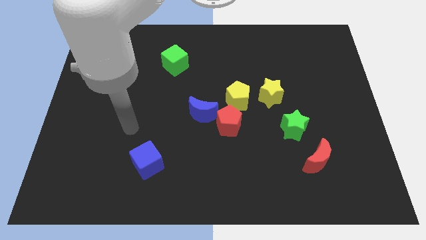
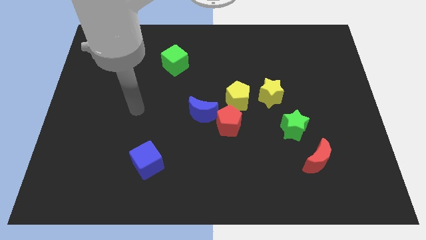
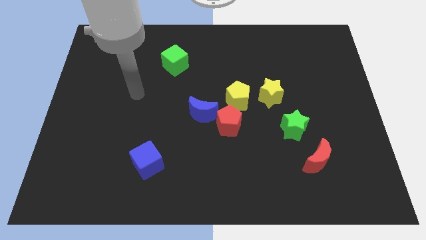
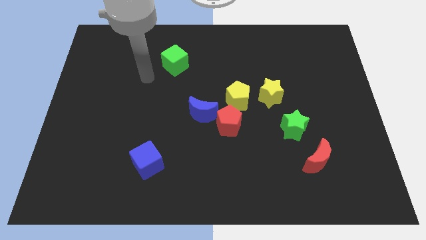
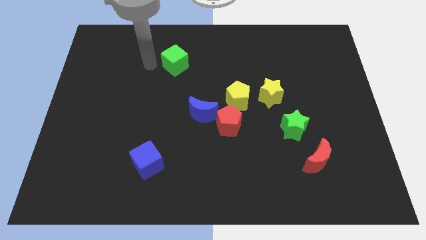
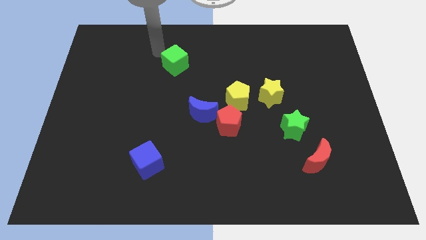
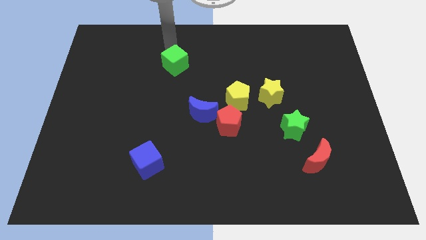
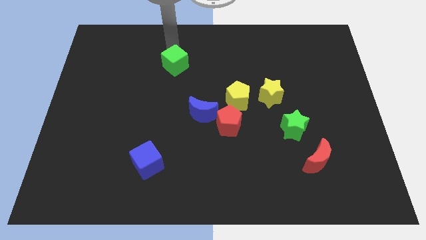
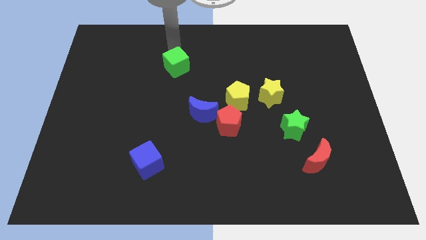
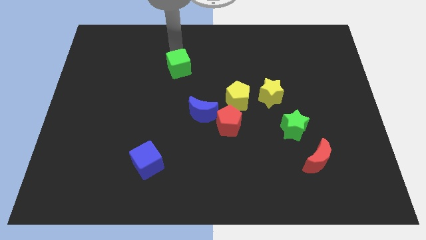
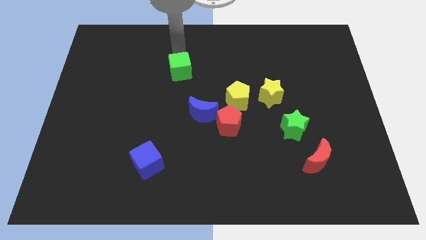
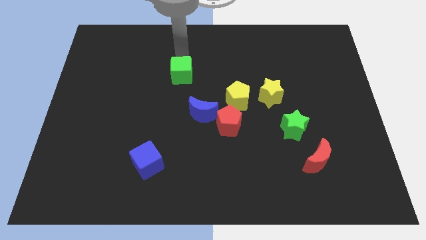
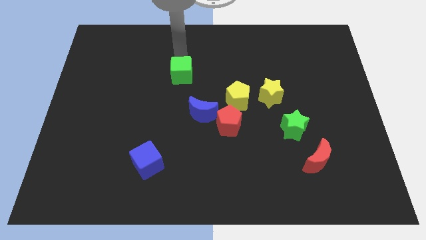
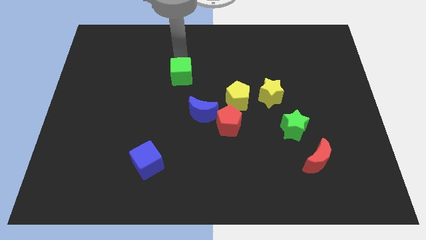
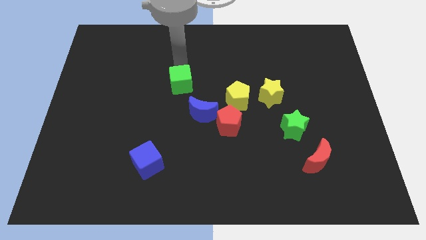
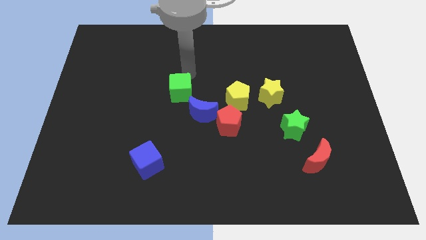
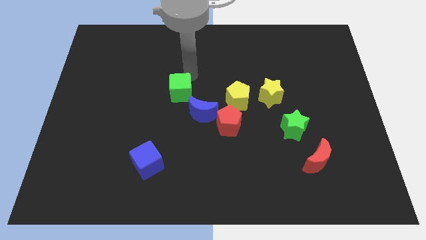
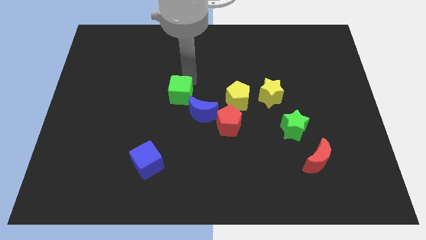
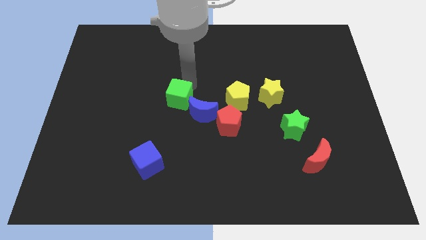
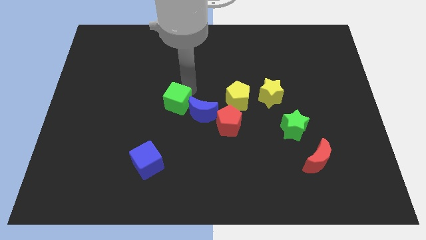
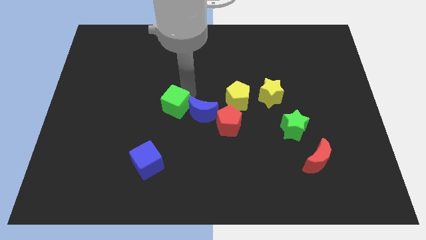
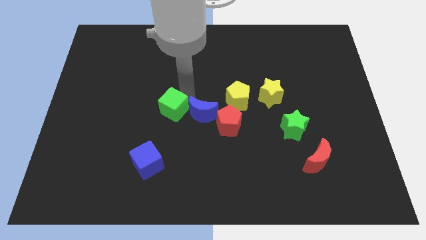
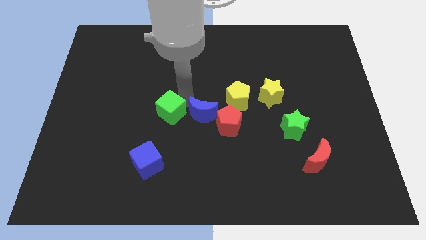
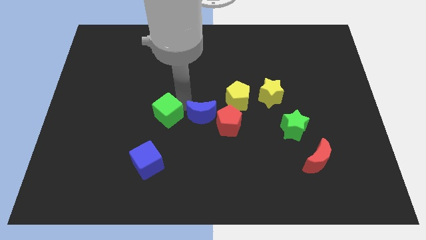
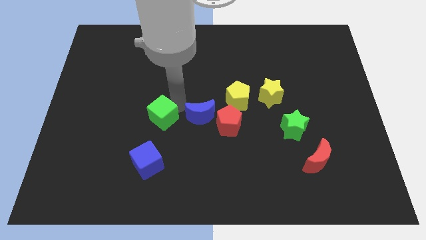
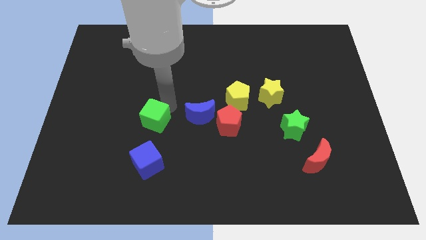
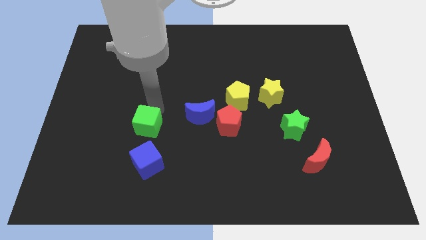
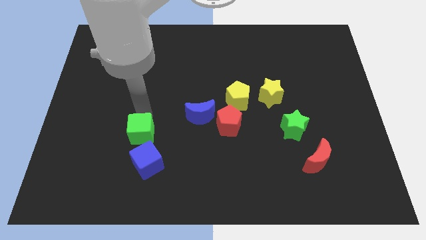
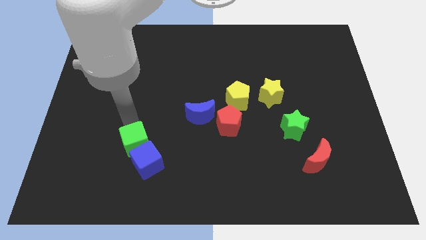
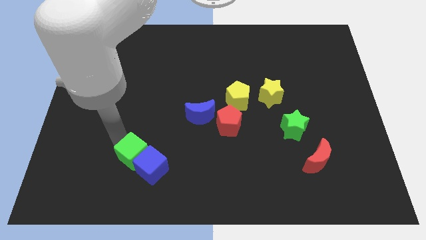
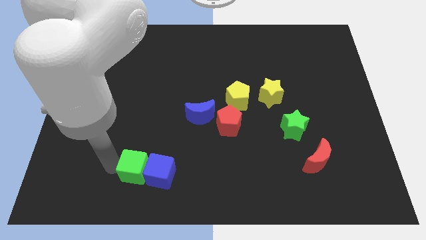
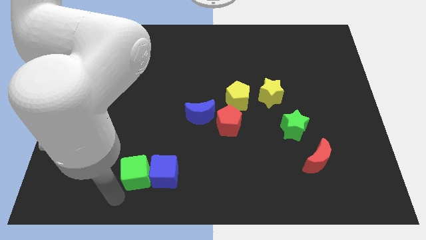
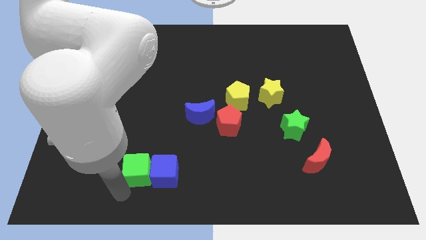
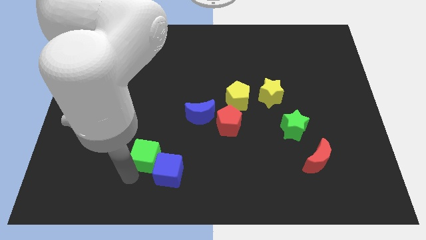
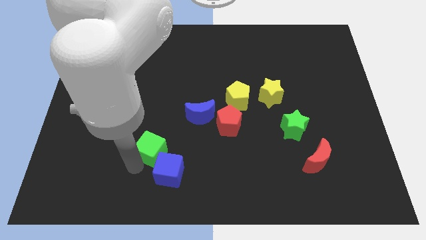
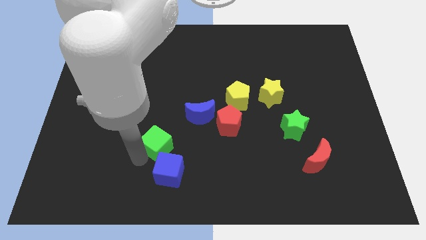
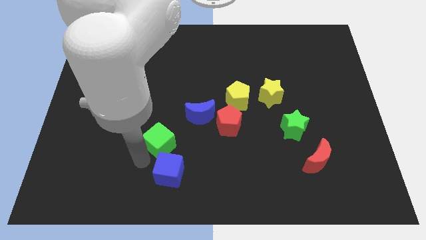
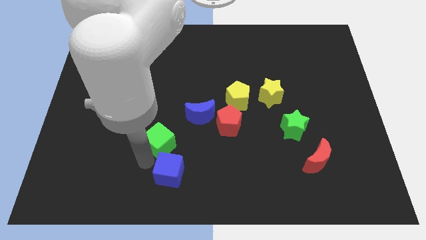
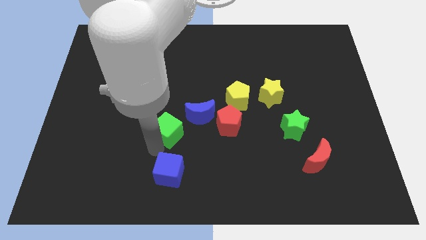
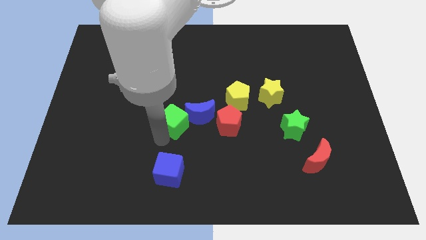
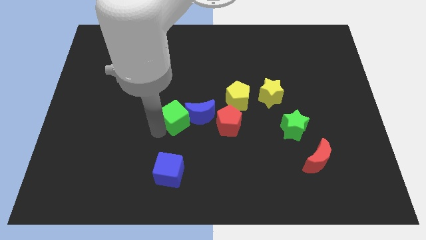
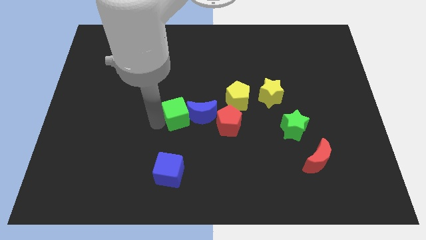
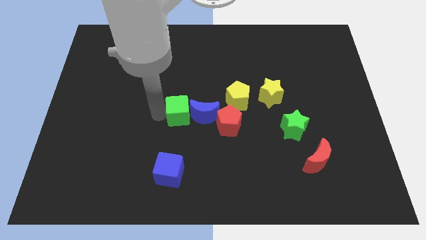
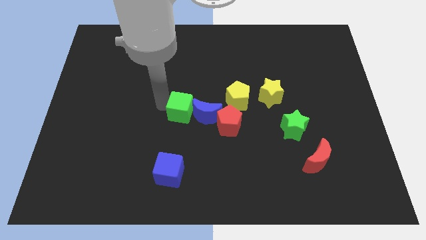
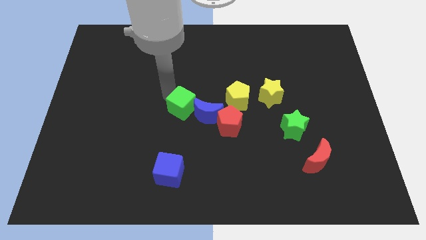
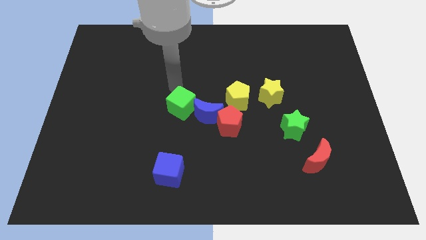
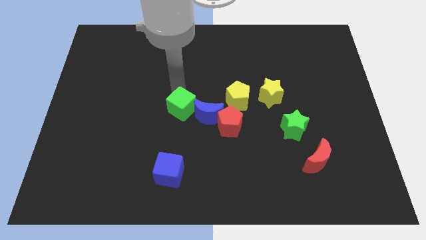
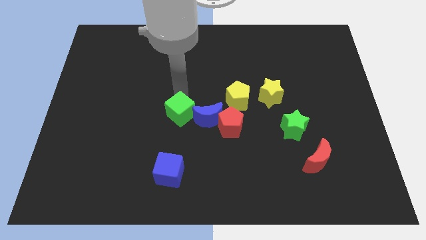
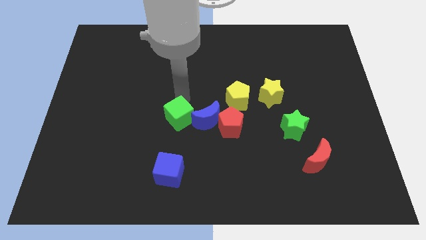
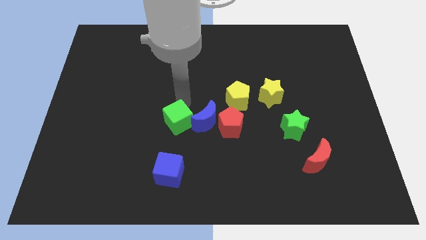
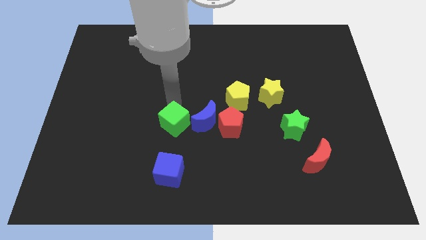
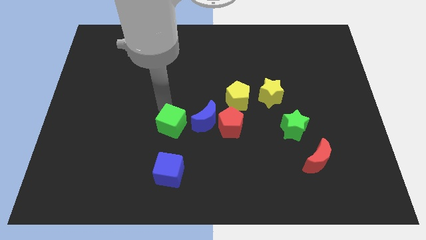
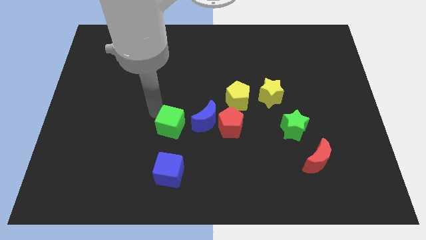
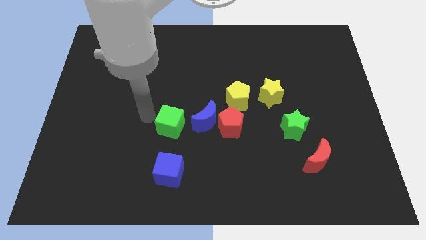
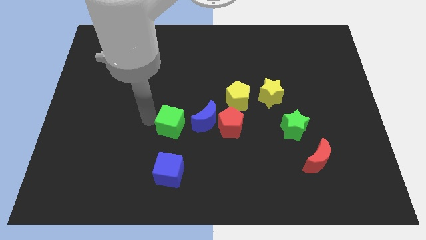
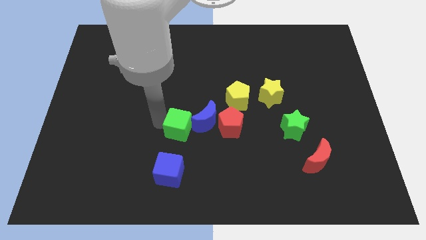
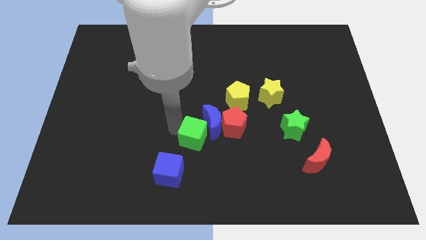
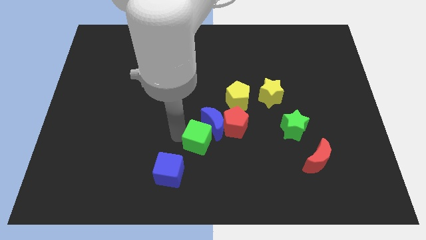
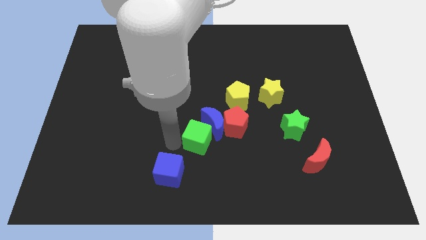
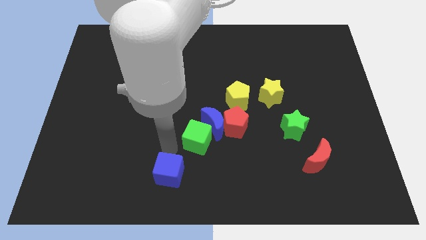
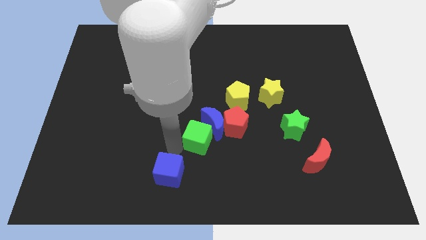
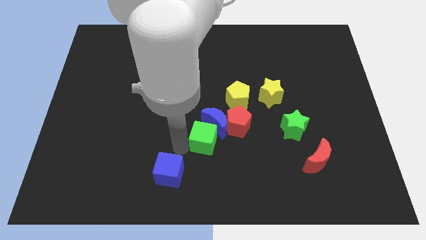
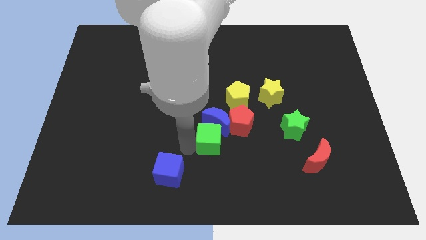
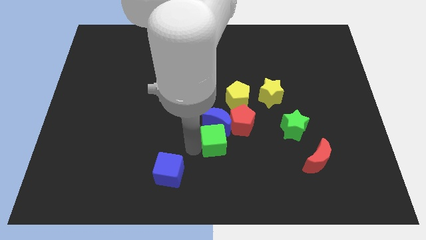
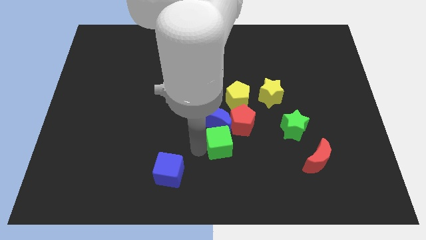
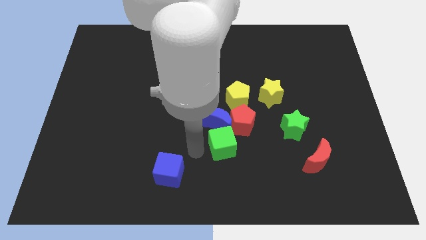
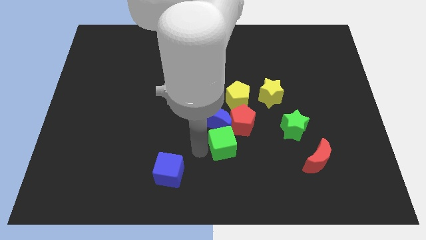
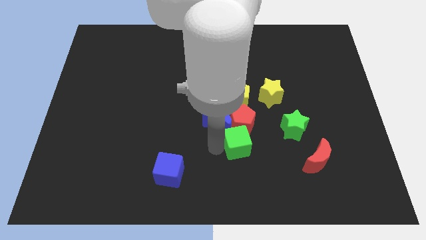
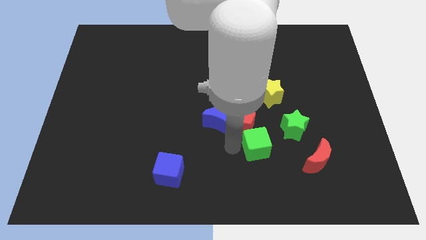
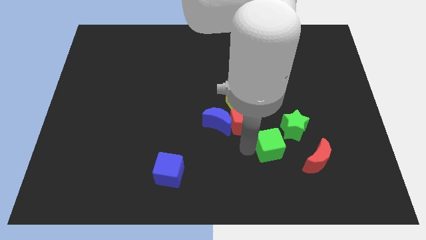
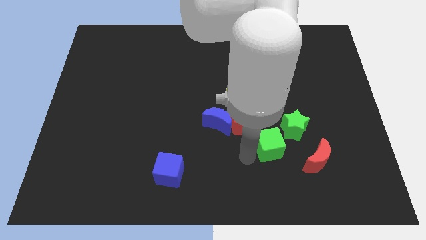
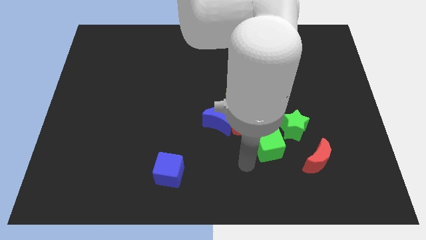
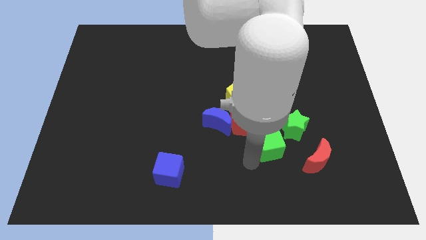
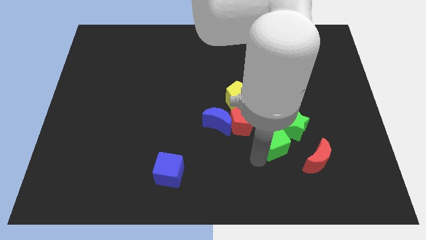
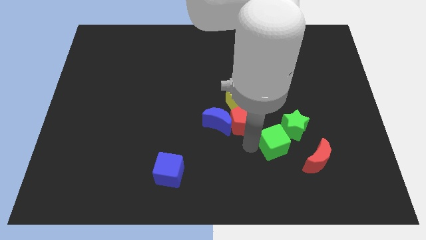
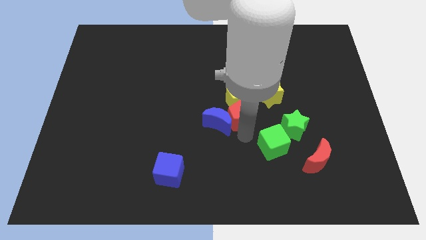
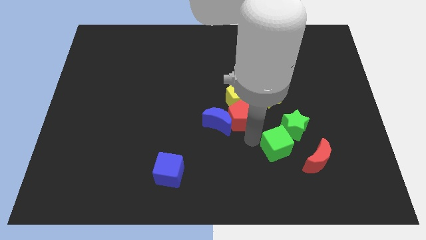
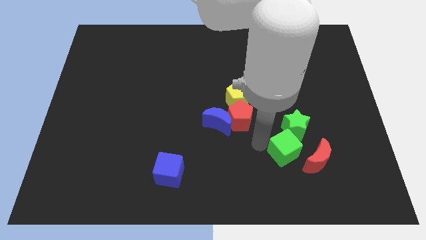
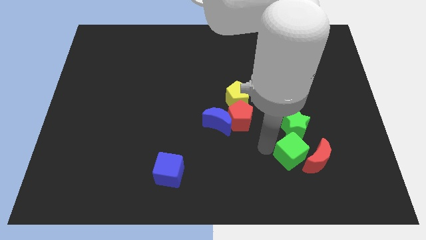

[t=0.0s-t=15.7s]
slide the green cube close to the red moon
